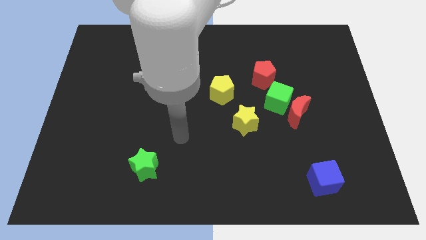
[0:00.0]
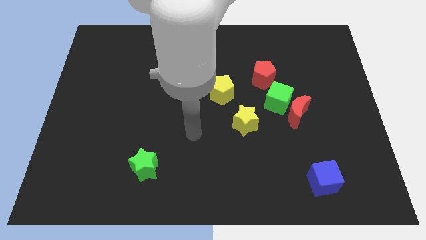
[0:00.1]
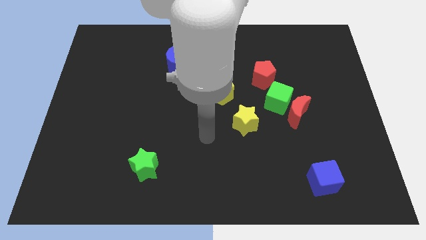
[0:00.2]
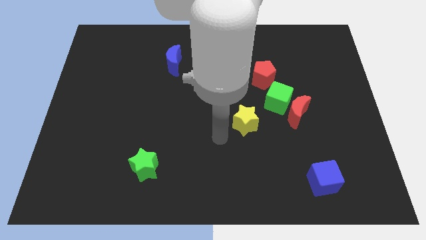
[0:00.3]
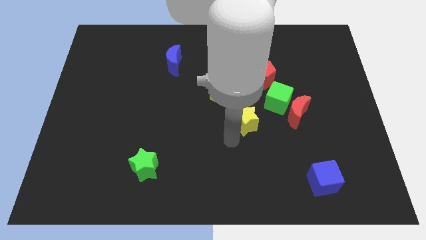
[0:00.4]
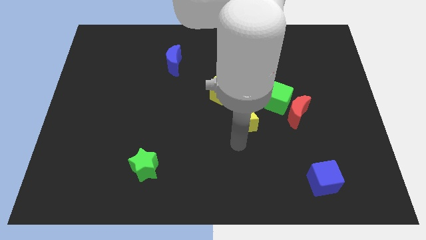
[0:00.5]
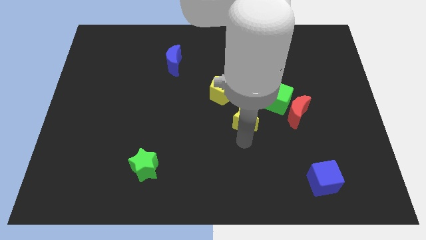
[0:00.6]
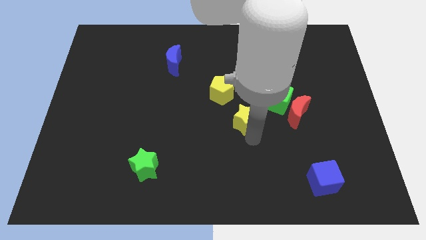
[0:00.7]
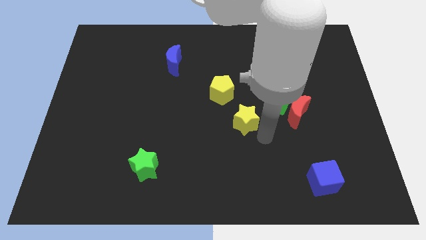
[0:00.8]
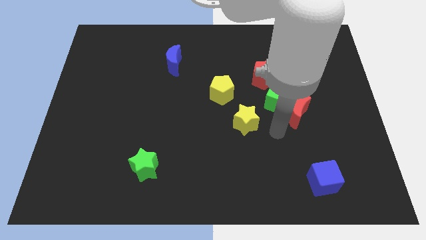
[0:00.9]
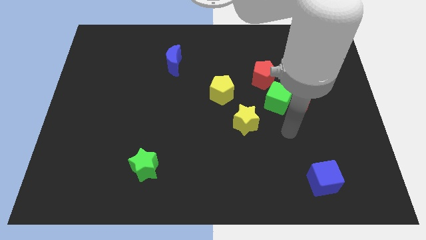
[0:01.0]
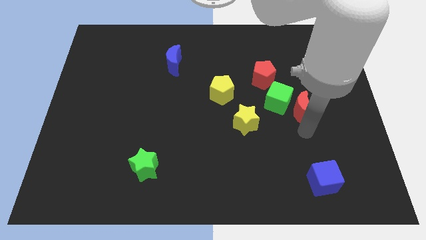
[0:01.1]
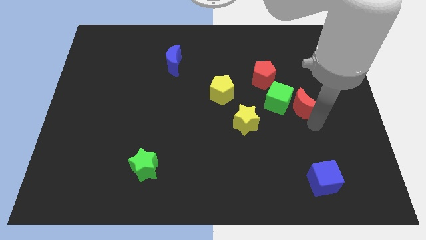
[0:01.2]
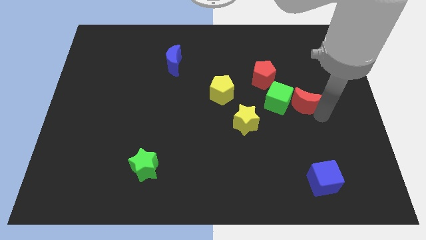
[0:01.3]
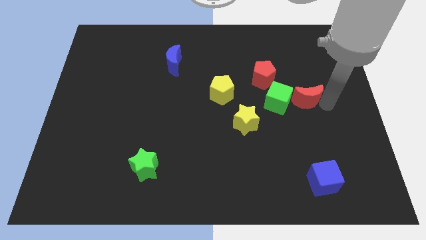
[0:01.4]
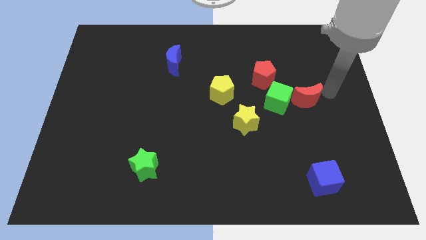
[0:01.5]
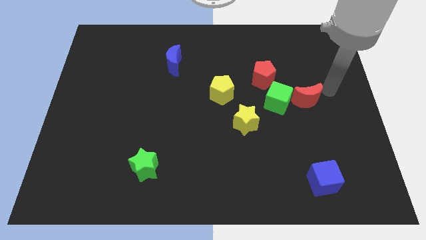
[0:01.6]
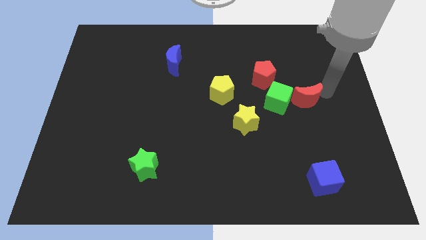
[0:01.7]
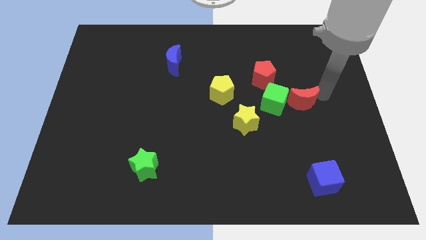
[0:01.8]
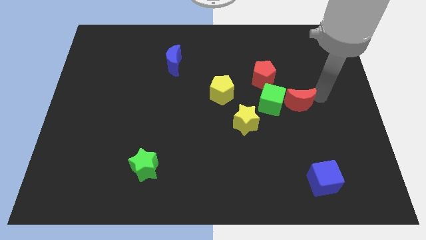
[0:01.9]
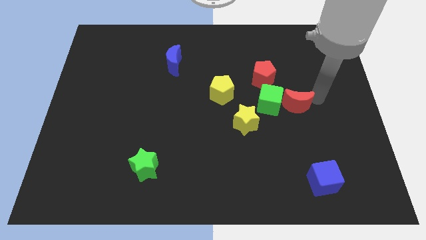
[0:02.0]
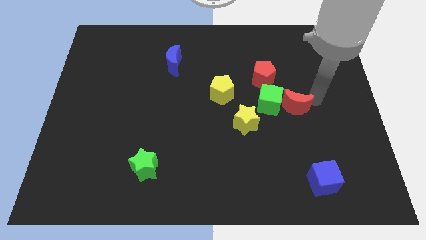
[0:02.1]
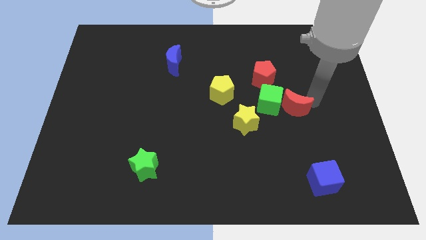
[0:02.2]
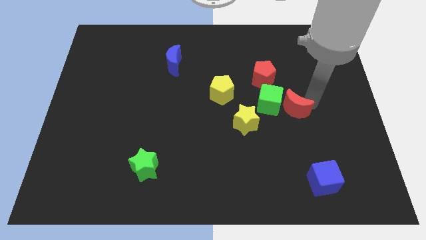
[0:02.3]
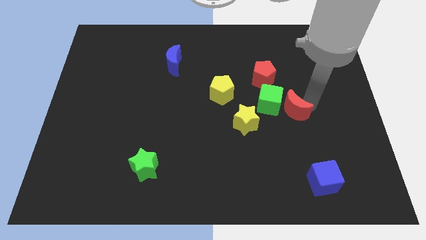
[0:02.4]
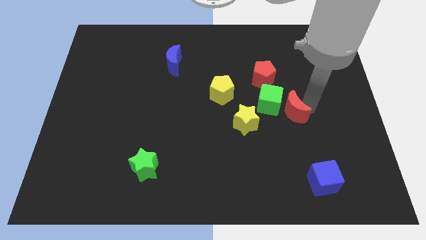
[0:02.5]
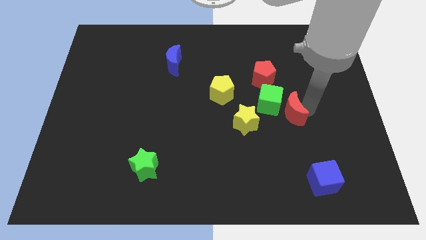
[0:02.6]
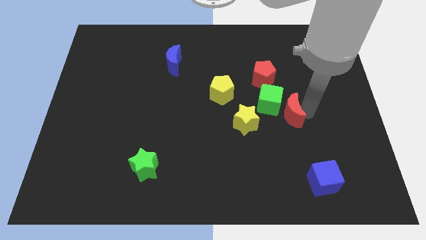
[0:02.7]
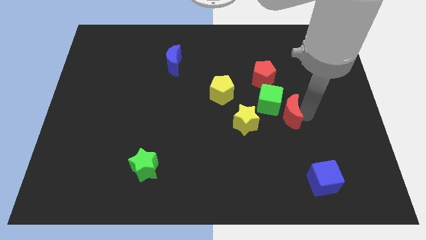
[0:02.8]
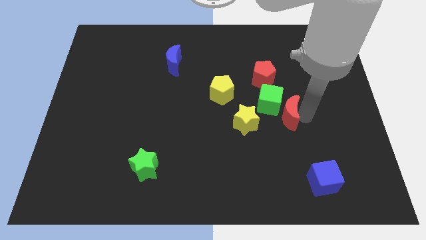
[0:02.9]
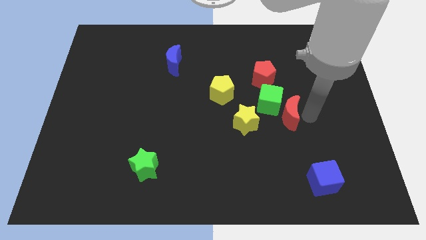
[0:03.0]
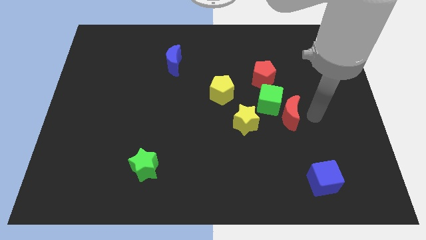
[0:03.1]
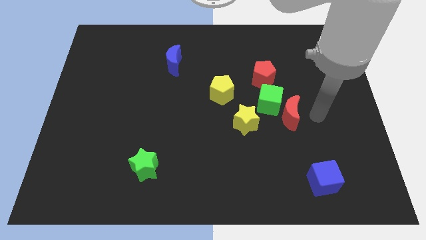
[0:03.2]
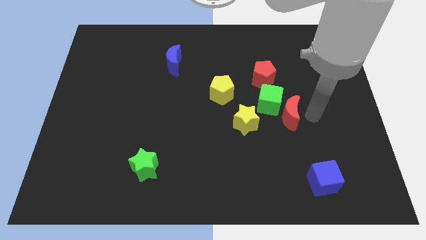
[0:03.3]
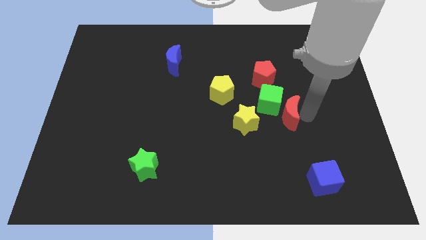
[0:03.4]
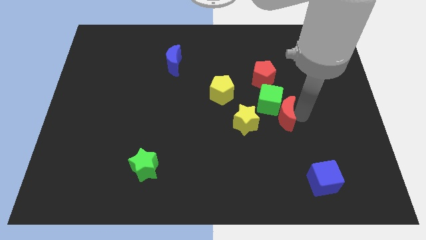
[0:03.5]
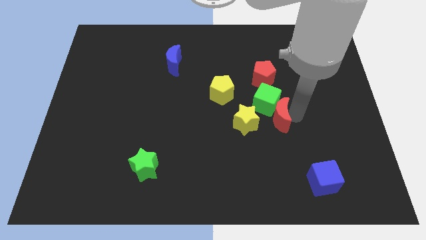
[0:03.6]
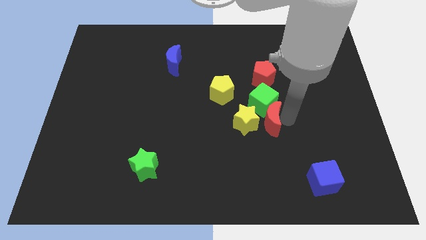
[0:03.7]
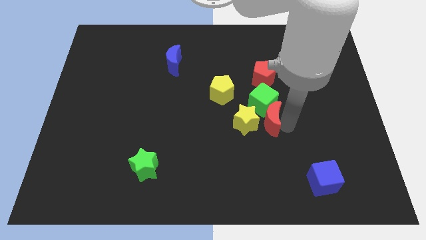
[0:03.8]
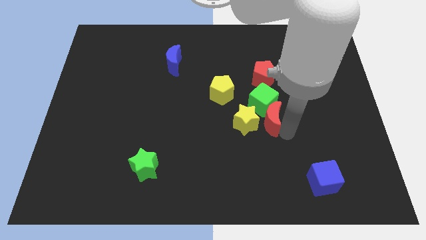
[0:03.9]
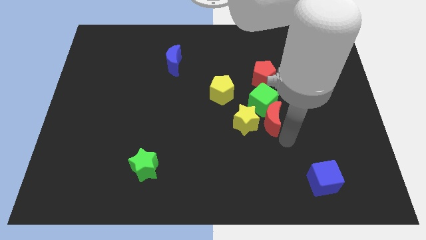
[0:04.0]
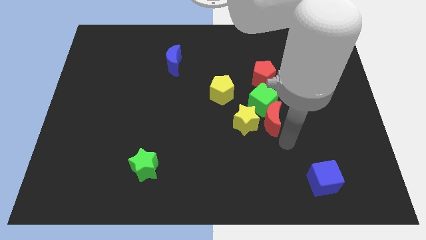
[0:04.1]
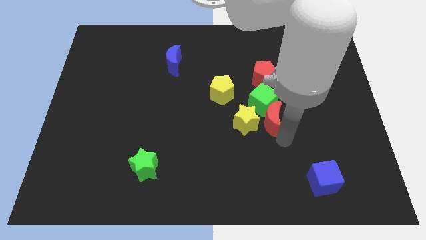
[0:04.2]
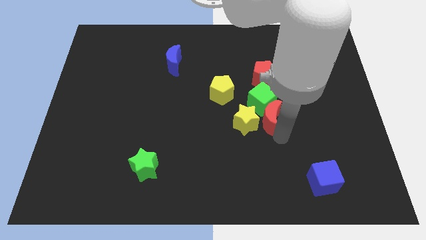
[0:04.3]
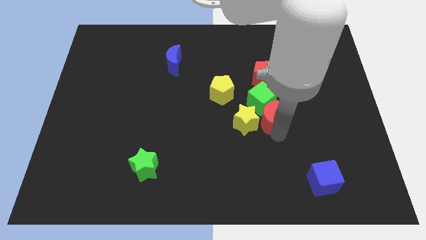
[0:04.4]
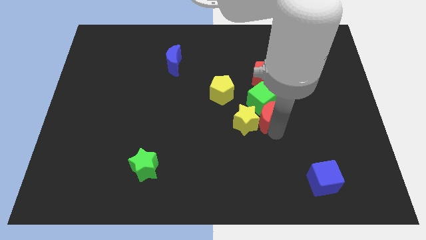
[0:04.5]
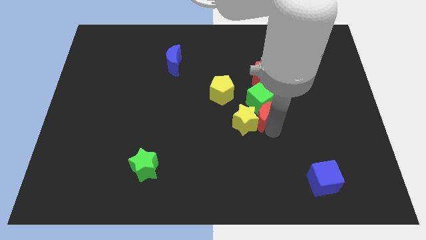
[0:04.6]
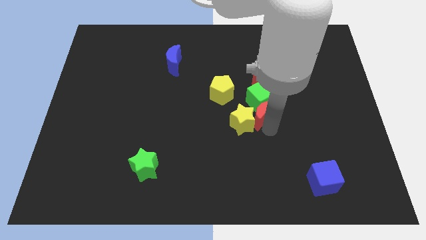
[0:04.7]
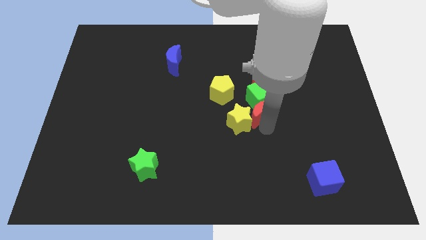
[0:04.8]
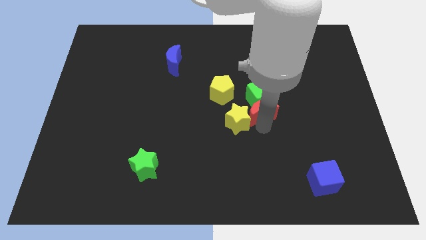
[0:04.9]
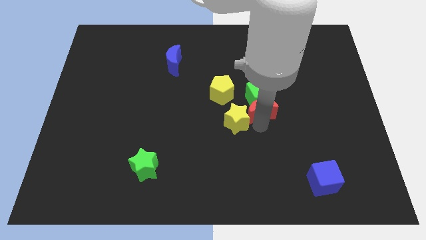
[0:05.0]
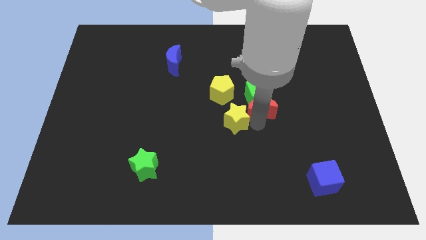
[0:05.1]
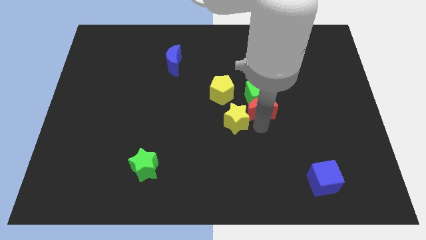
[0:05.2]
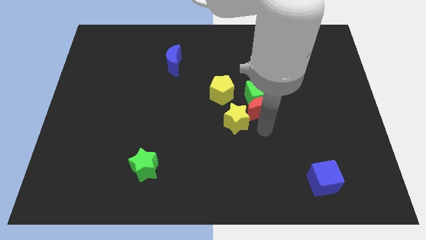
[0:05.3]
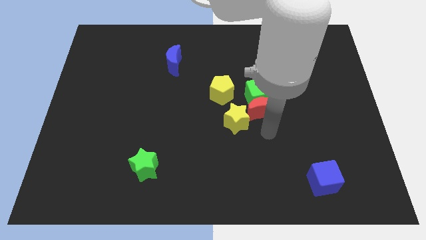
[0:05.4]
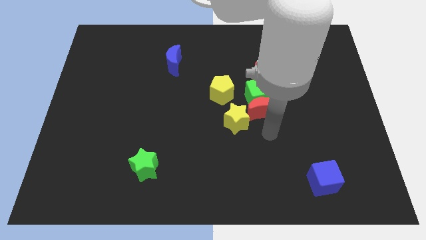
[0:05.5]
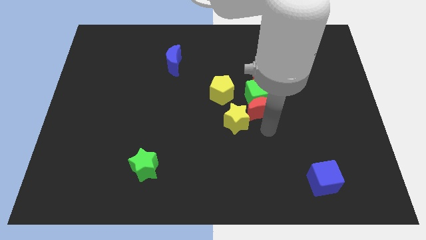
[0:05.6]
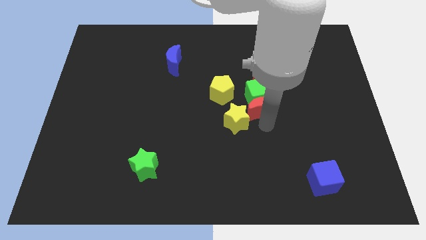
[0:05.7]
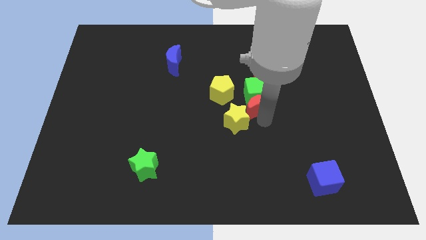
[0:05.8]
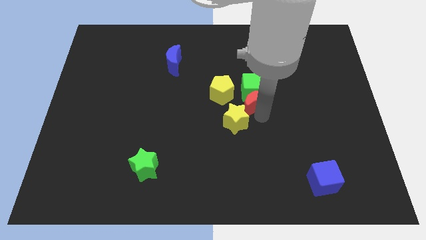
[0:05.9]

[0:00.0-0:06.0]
slide the red moon slightly diagonally up and left

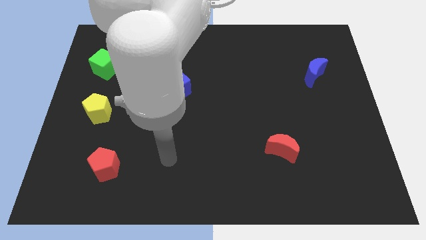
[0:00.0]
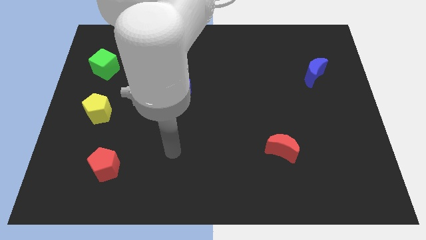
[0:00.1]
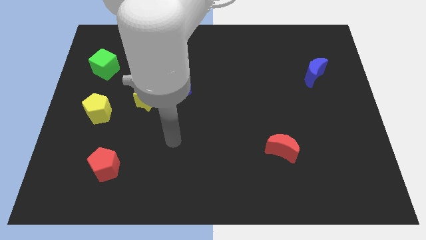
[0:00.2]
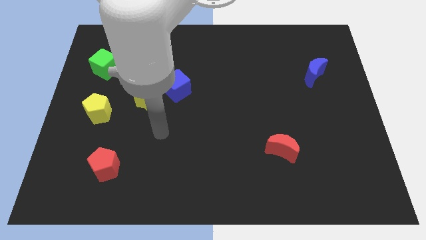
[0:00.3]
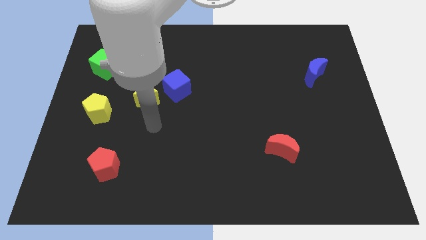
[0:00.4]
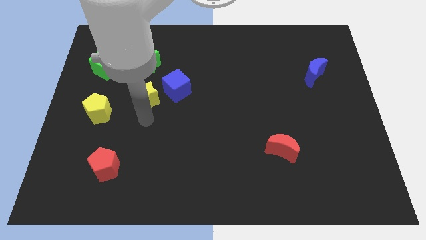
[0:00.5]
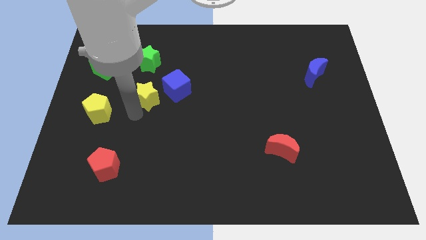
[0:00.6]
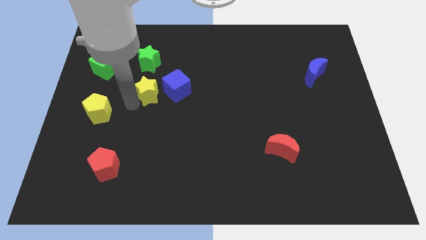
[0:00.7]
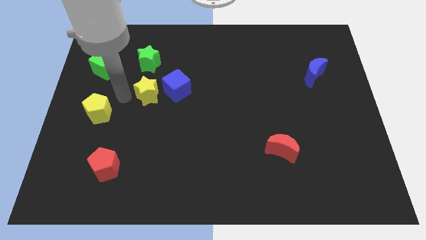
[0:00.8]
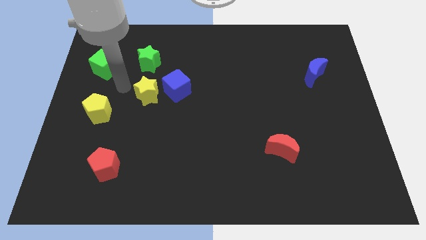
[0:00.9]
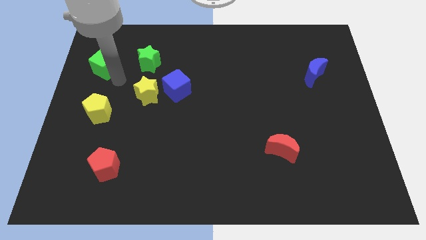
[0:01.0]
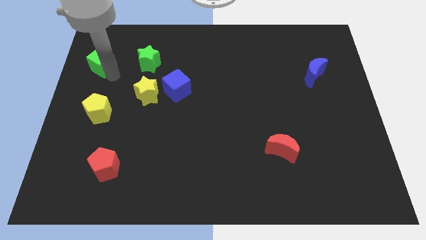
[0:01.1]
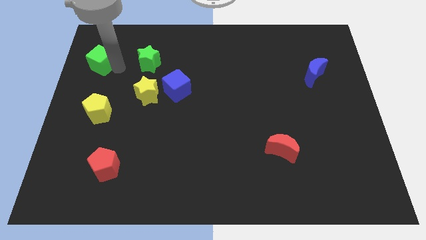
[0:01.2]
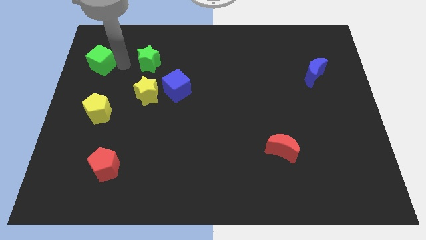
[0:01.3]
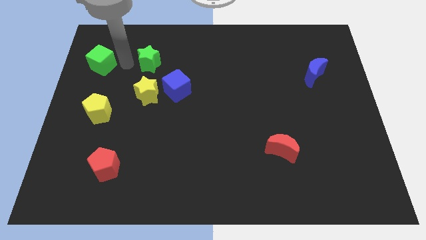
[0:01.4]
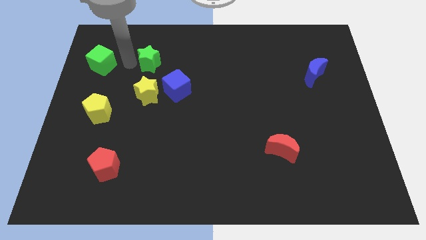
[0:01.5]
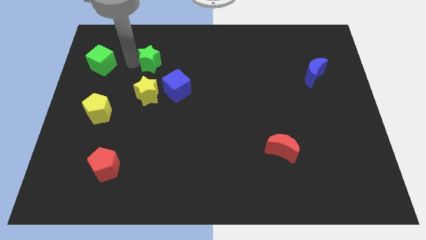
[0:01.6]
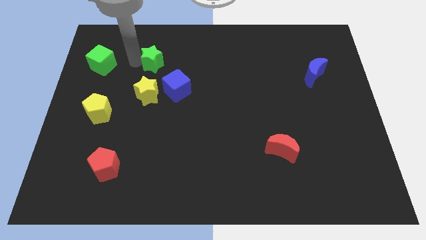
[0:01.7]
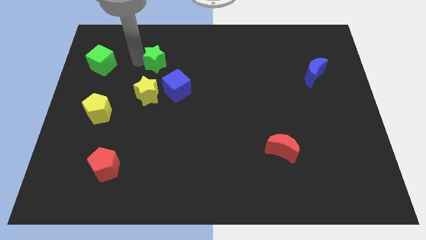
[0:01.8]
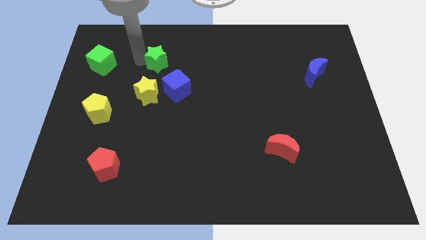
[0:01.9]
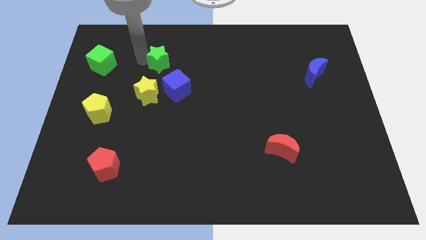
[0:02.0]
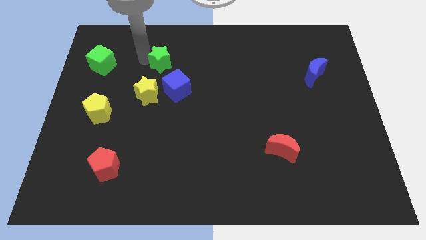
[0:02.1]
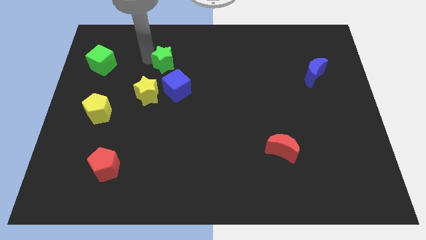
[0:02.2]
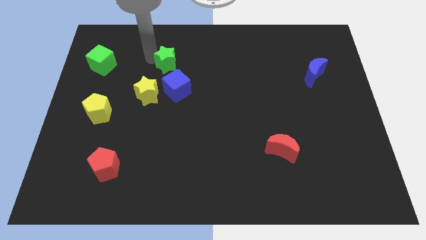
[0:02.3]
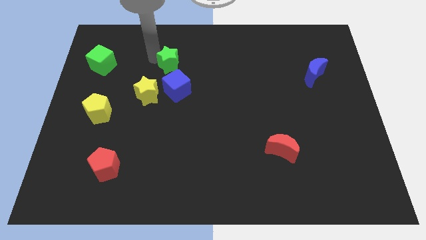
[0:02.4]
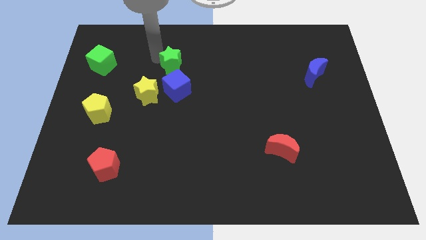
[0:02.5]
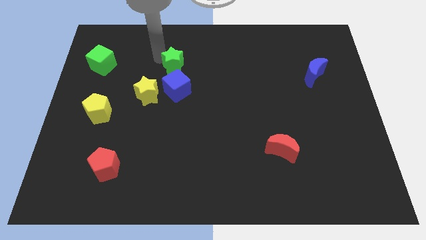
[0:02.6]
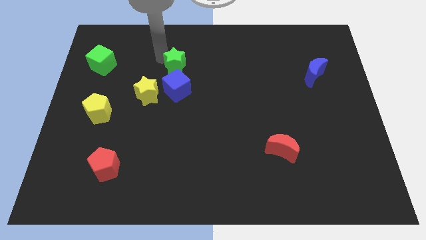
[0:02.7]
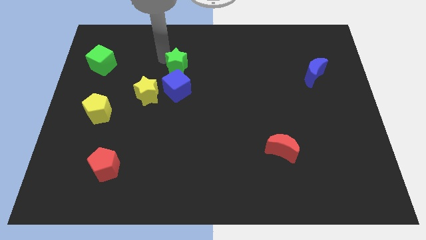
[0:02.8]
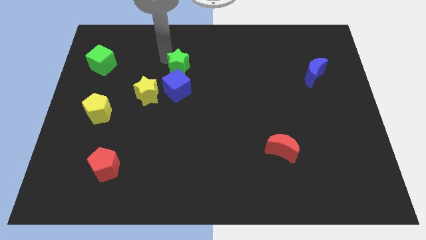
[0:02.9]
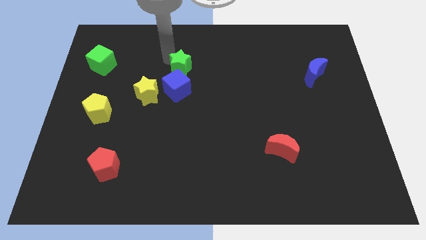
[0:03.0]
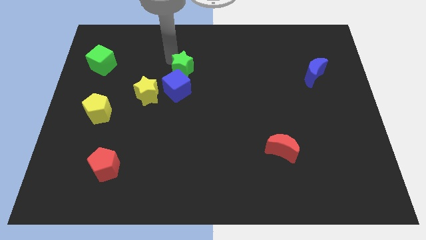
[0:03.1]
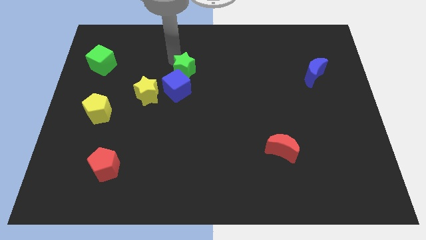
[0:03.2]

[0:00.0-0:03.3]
push the green star down and then right a bit
